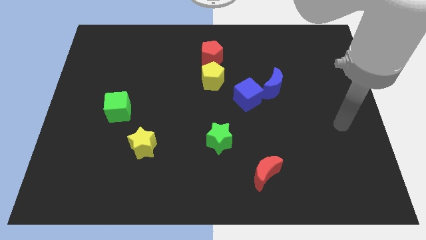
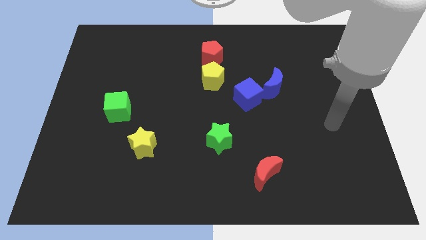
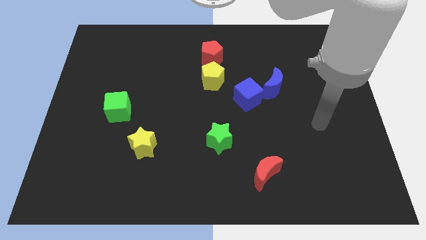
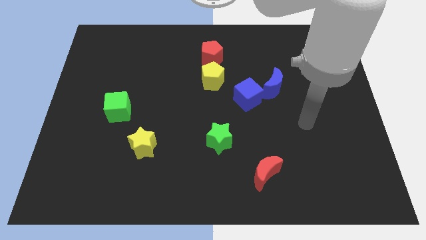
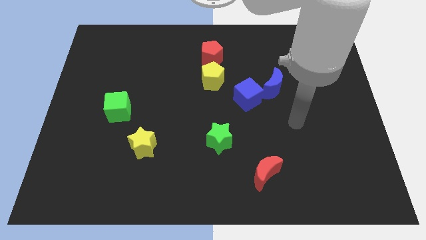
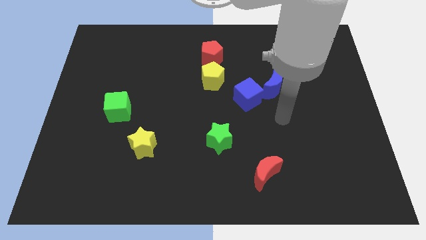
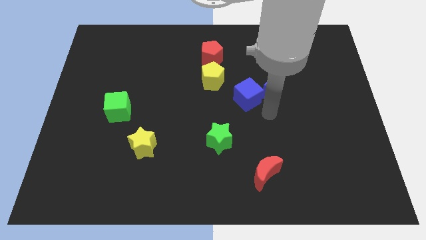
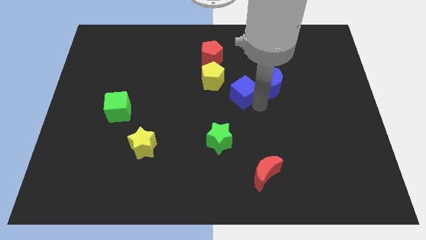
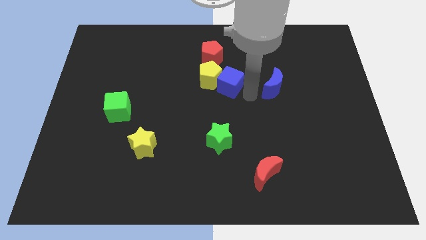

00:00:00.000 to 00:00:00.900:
move the blue moon away from the blue cube

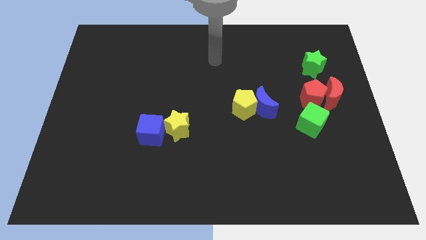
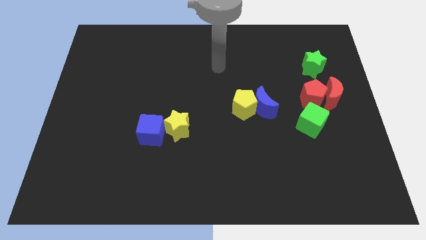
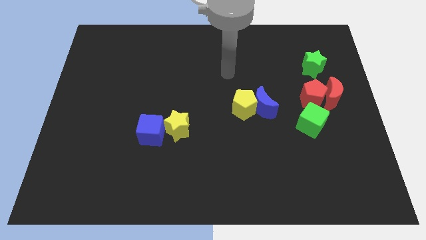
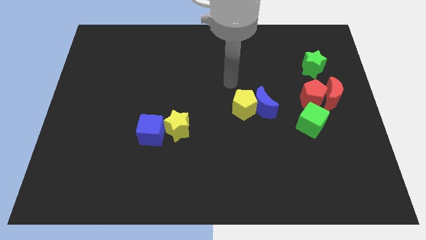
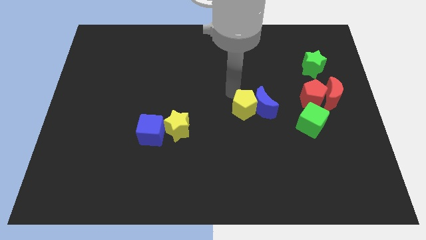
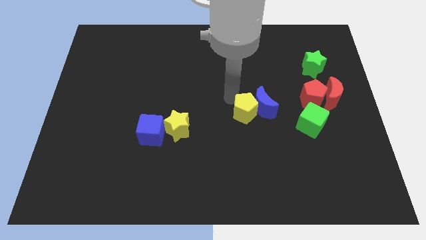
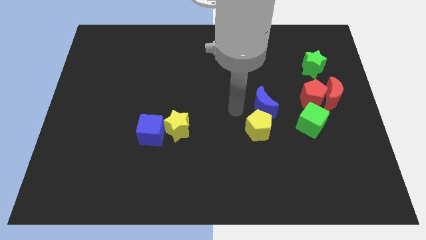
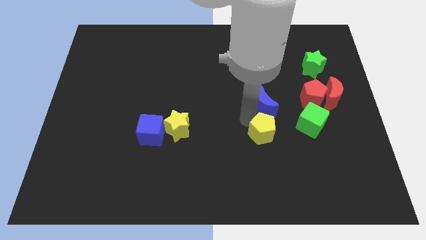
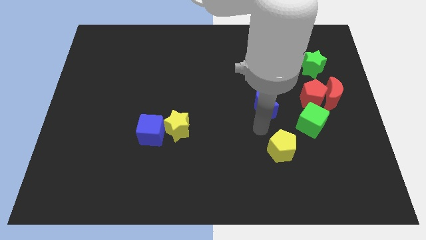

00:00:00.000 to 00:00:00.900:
separate the blue moon from the yellow pentagon

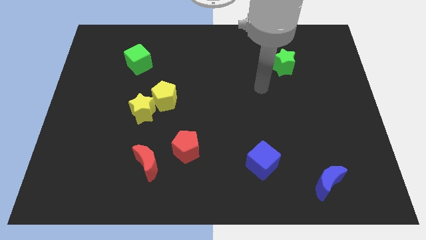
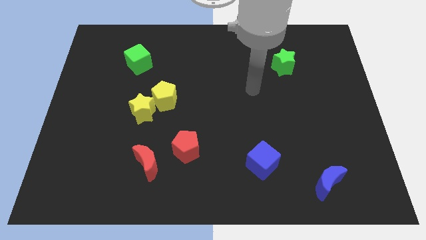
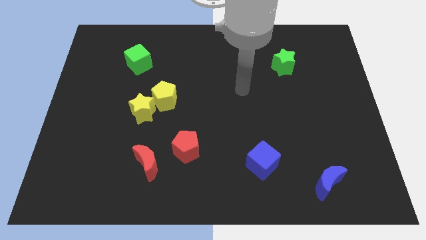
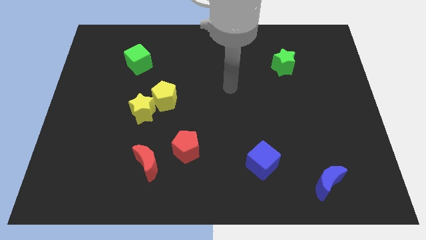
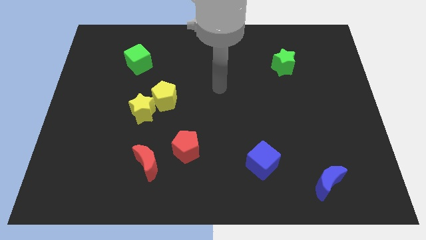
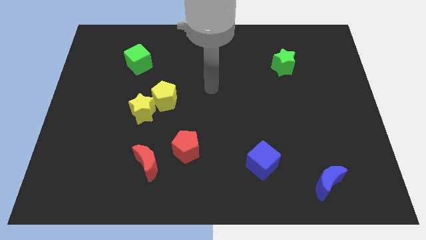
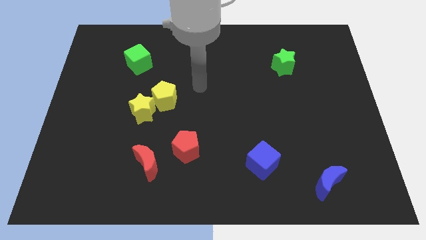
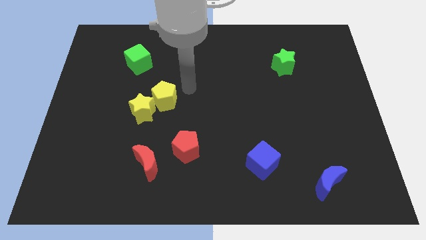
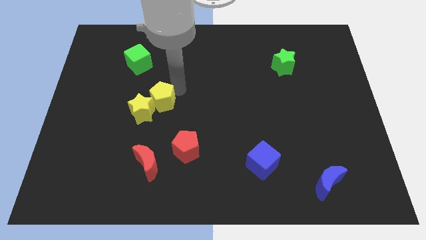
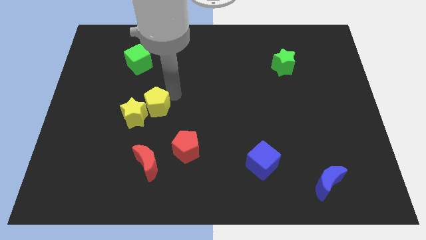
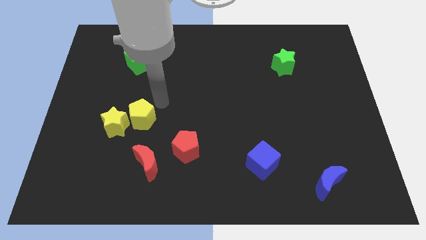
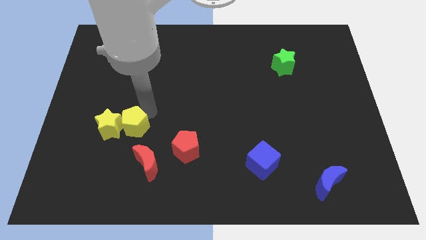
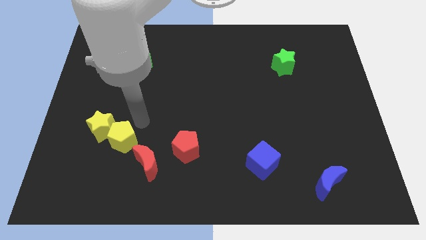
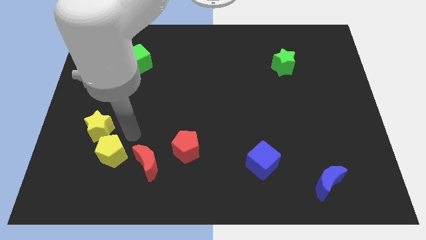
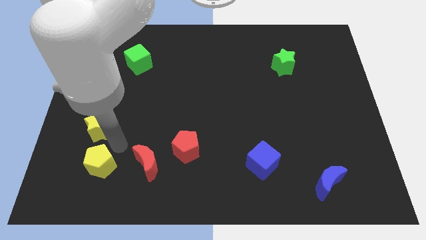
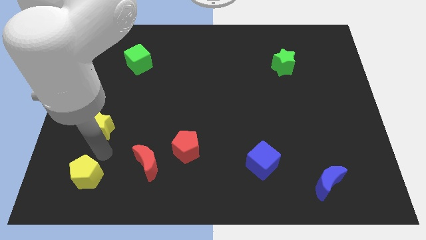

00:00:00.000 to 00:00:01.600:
separate the yellow star from the yellow pentagon

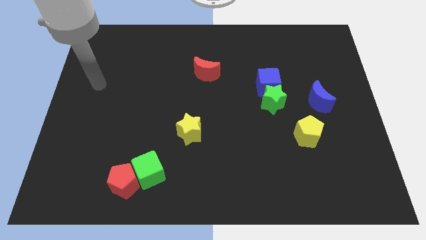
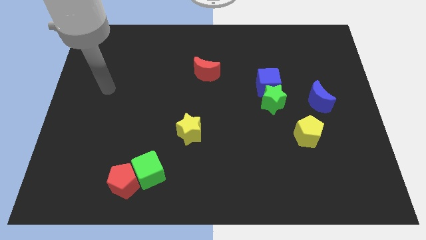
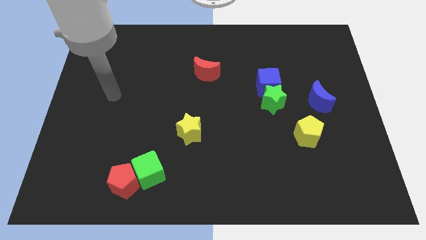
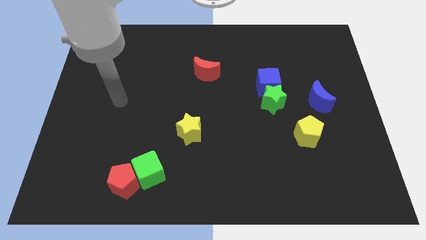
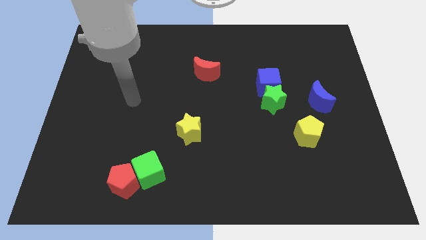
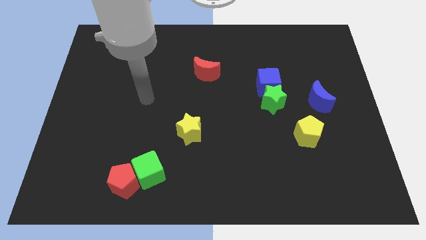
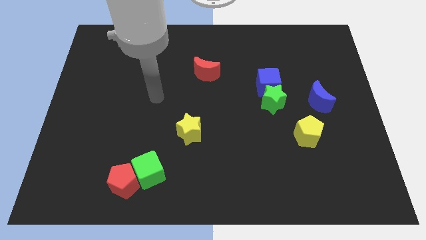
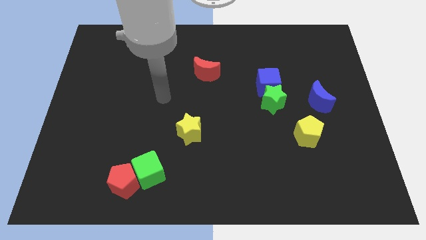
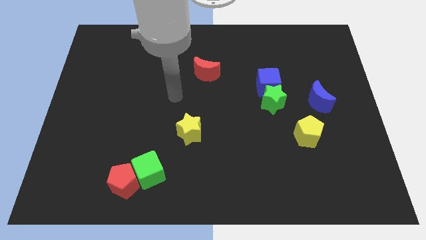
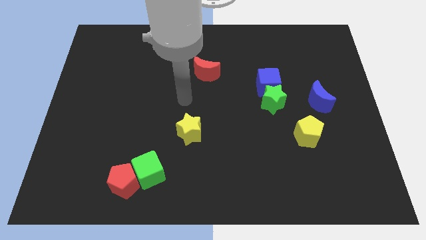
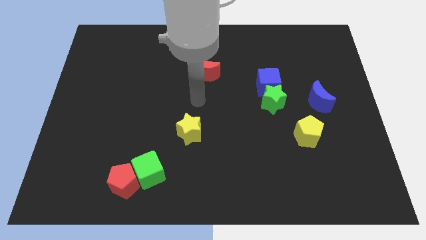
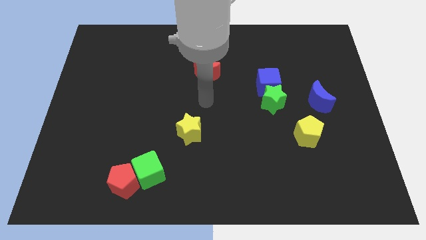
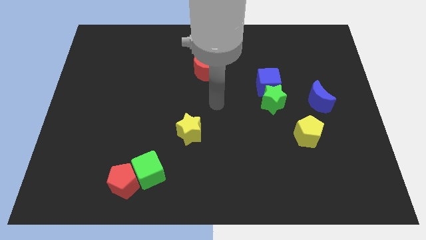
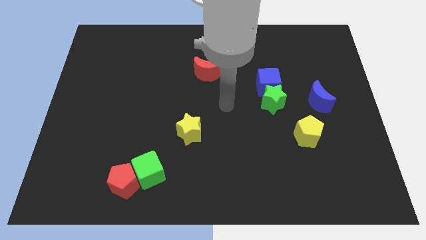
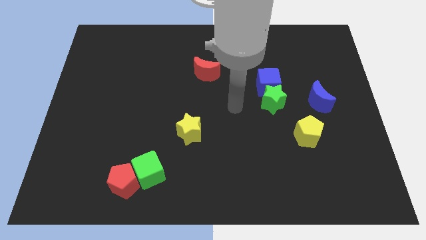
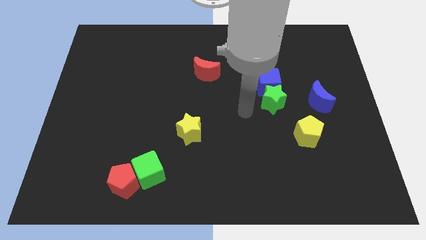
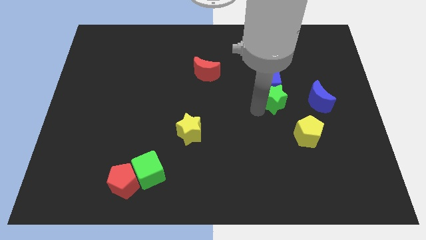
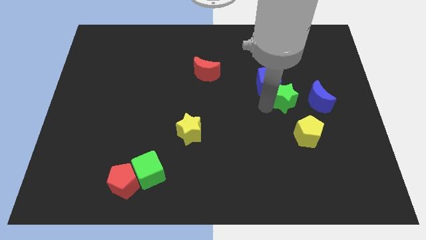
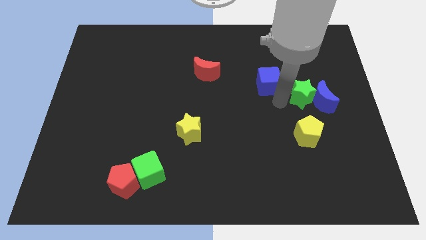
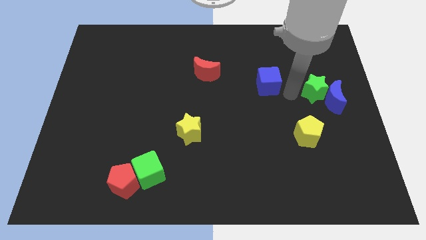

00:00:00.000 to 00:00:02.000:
separate the blue cube from the green star

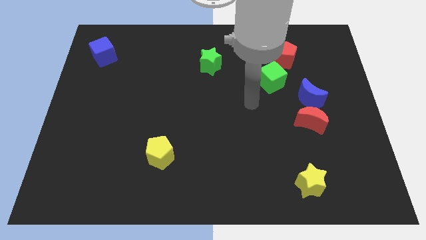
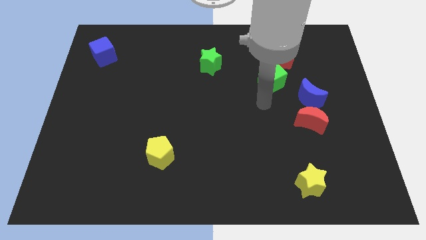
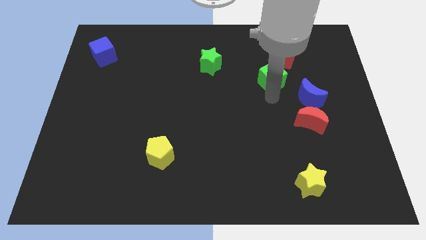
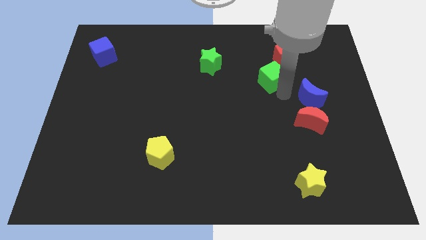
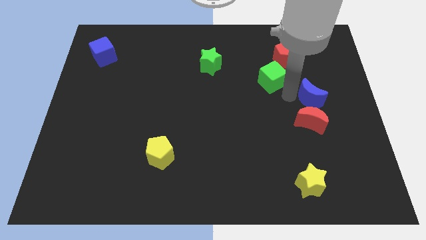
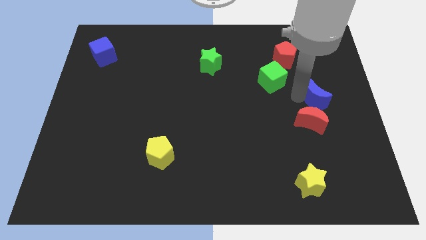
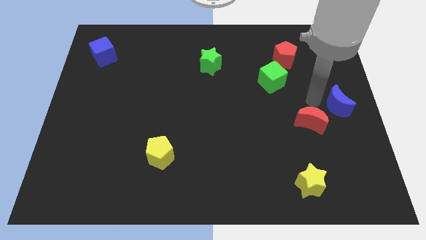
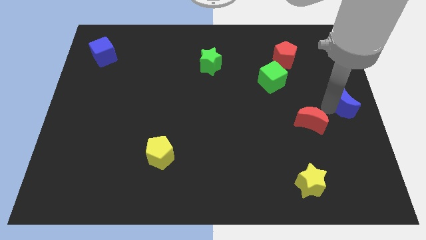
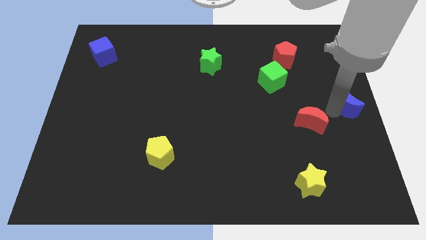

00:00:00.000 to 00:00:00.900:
separate the red moon from the blue moon

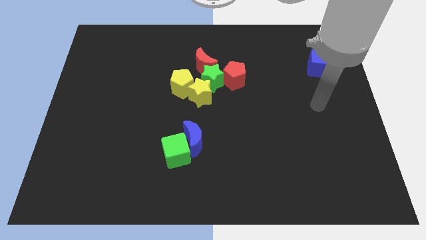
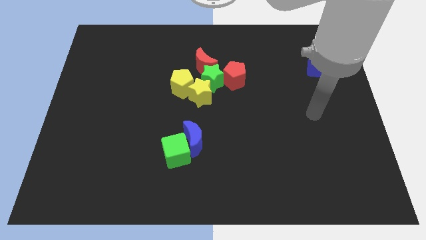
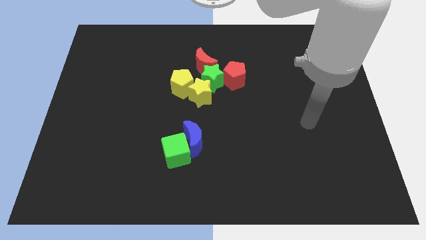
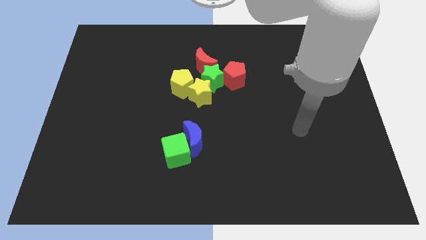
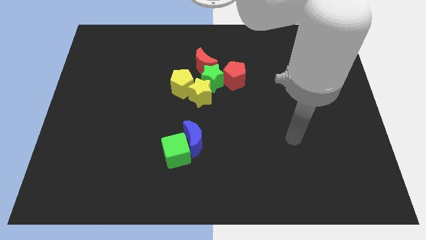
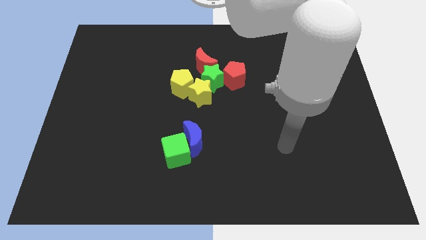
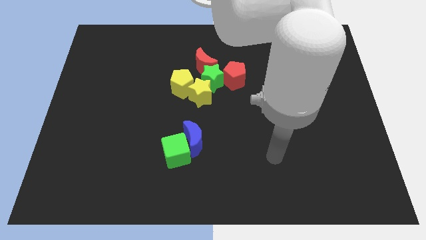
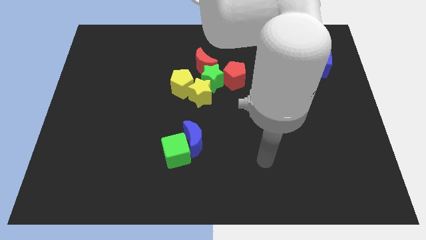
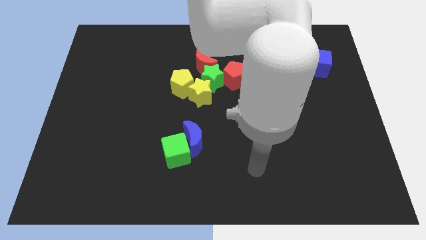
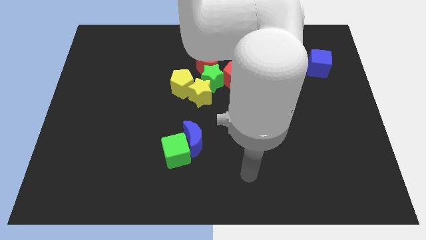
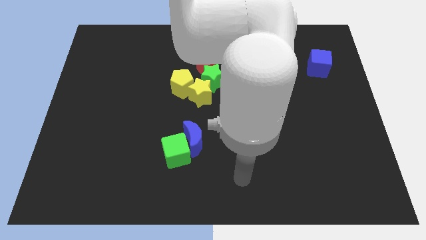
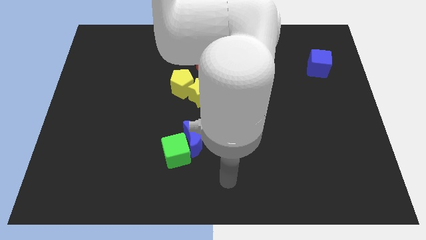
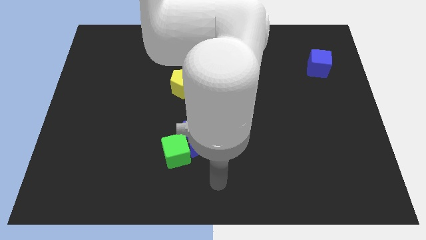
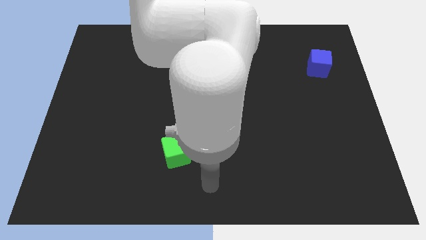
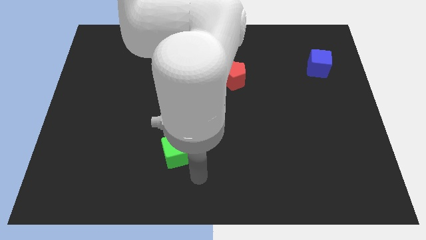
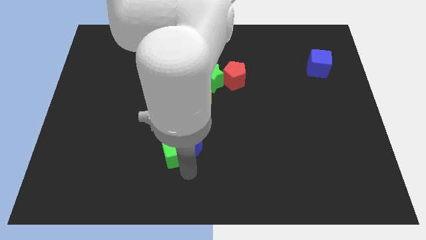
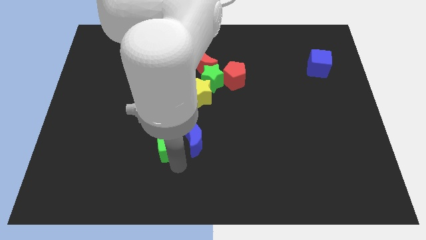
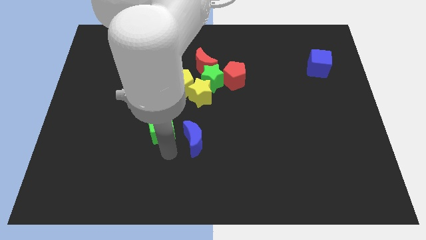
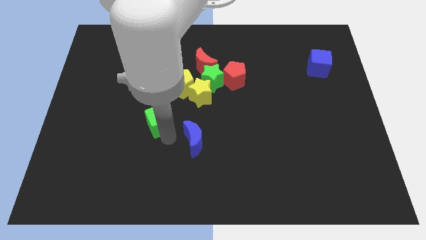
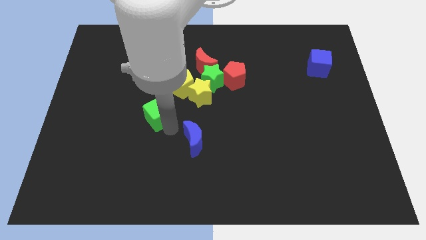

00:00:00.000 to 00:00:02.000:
move the blue moon away from the green cube

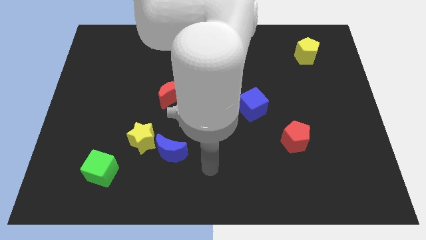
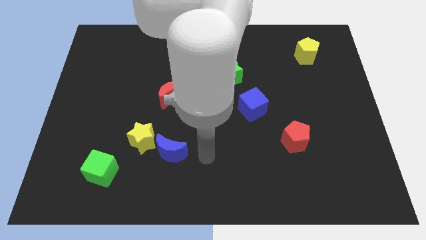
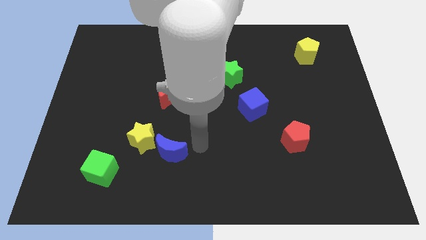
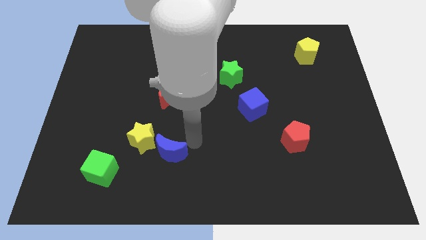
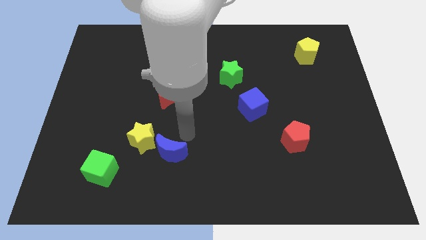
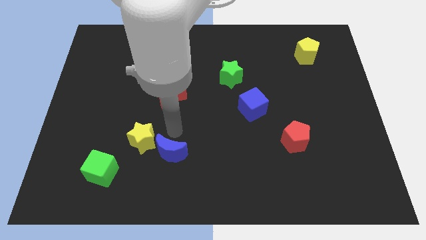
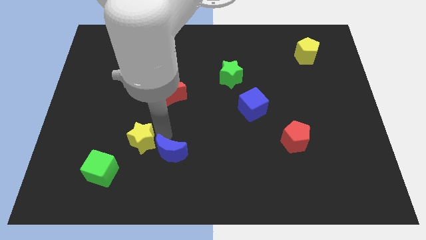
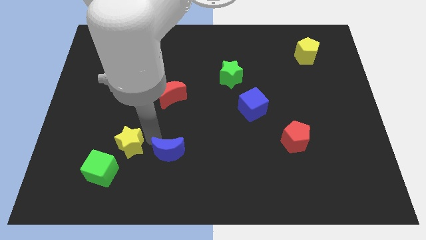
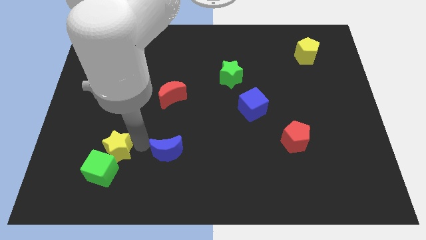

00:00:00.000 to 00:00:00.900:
separate the blue moon from the yellow star

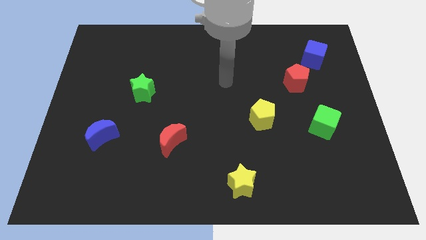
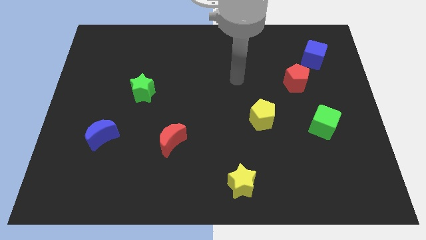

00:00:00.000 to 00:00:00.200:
separate the red pentagon from the blue cube
